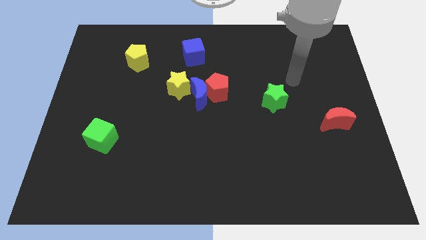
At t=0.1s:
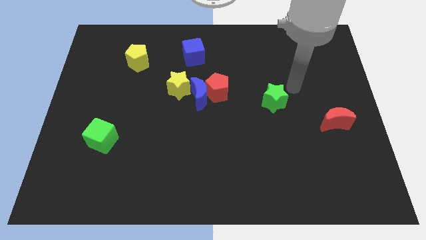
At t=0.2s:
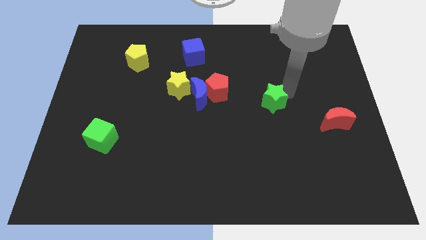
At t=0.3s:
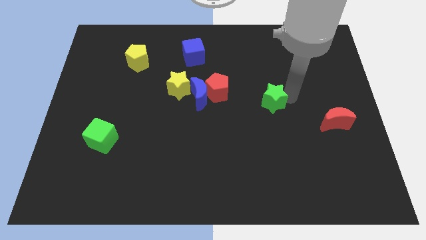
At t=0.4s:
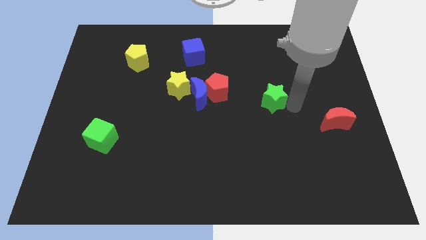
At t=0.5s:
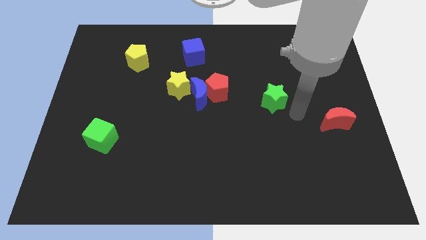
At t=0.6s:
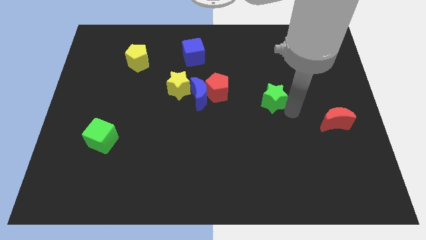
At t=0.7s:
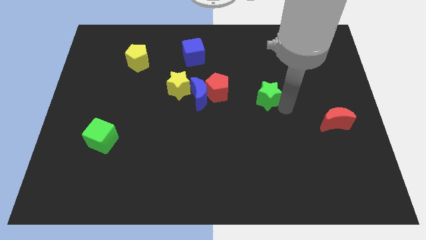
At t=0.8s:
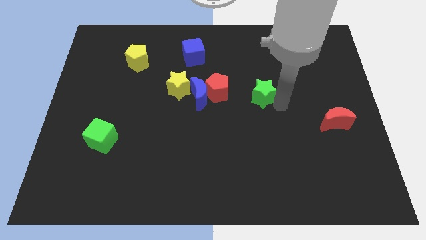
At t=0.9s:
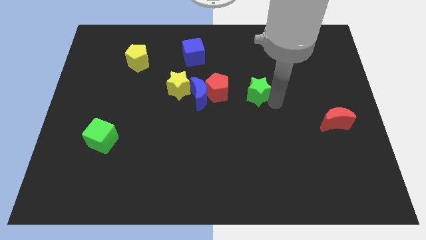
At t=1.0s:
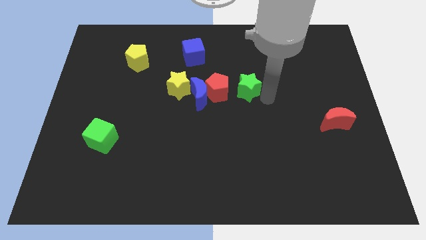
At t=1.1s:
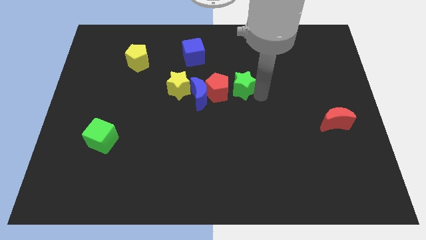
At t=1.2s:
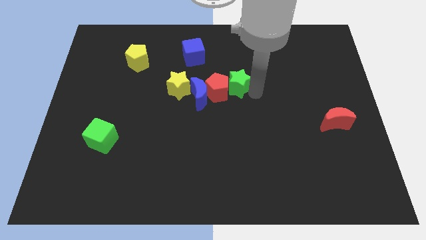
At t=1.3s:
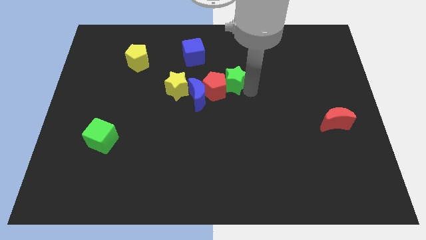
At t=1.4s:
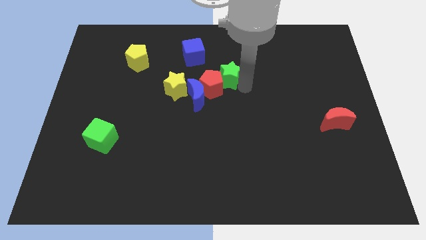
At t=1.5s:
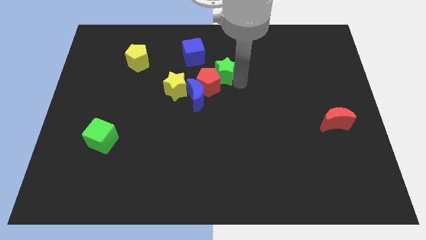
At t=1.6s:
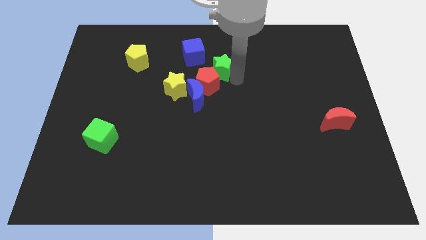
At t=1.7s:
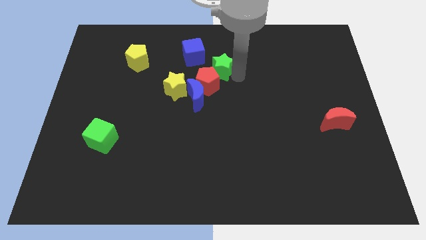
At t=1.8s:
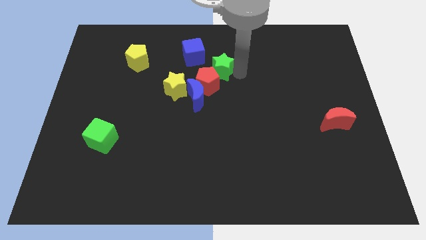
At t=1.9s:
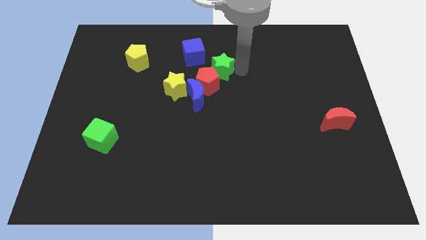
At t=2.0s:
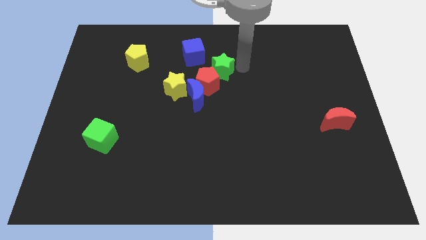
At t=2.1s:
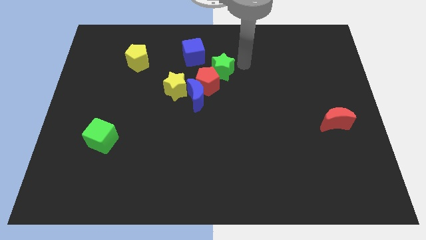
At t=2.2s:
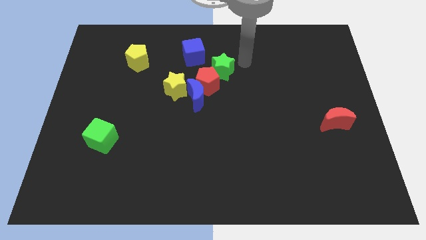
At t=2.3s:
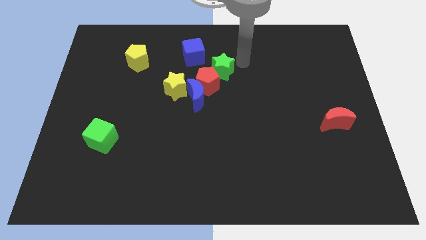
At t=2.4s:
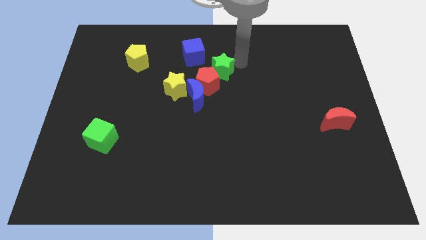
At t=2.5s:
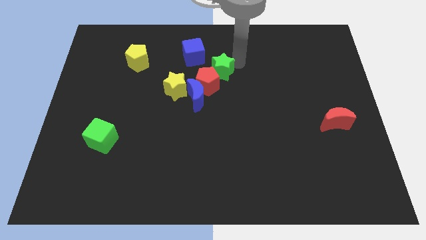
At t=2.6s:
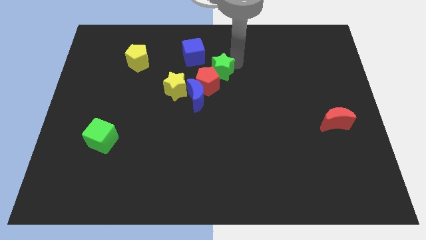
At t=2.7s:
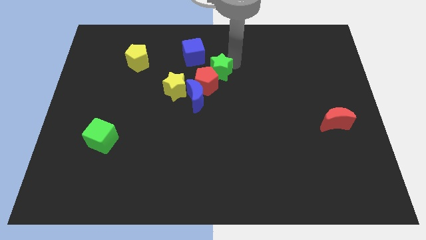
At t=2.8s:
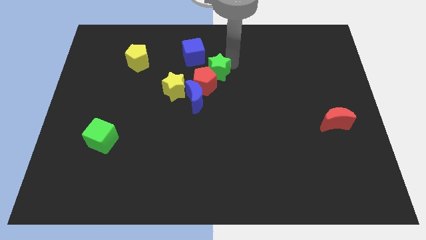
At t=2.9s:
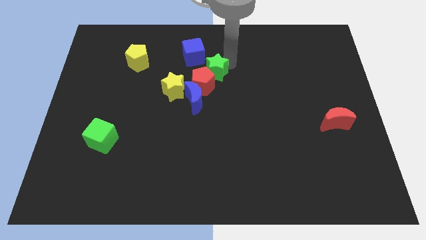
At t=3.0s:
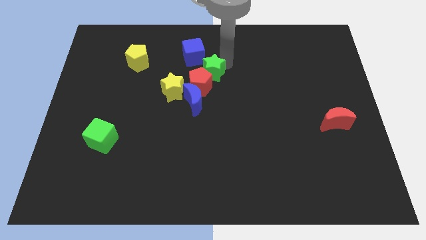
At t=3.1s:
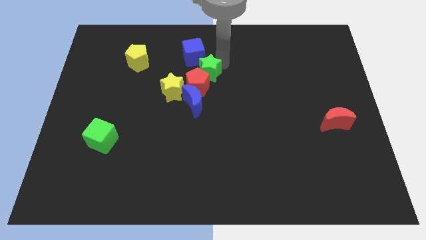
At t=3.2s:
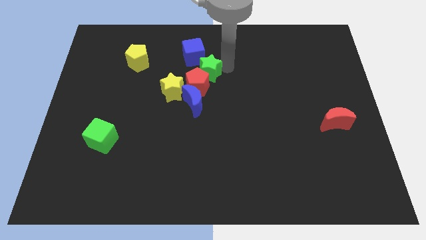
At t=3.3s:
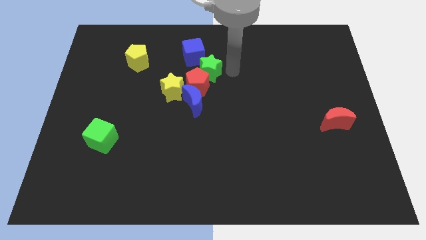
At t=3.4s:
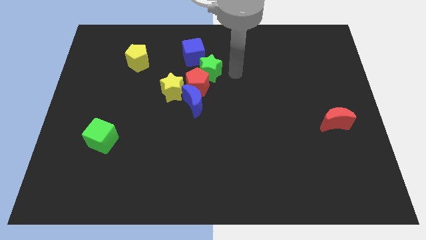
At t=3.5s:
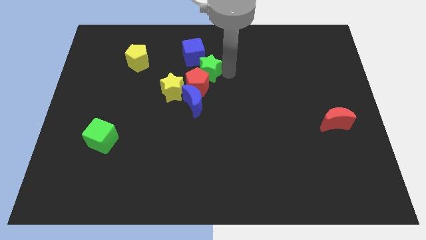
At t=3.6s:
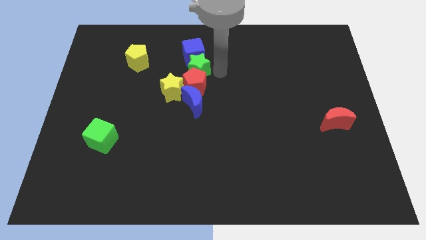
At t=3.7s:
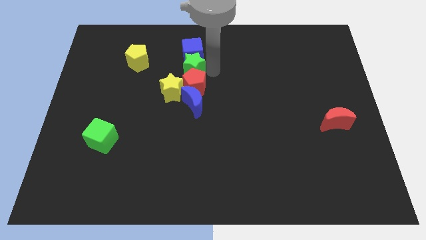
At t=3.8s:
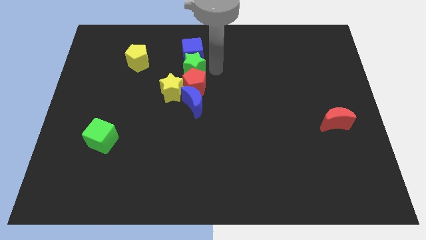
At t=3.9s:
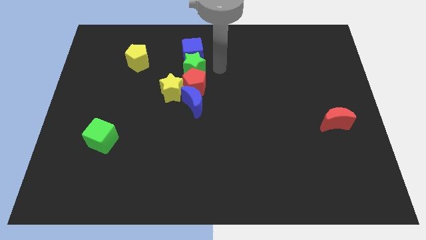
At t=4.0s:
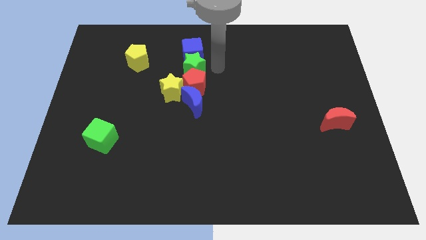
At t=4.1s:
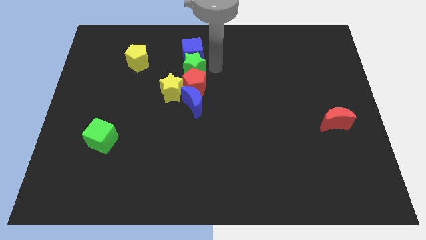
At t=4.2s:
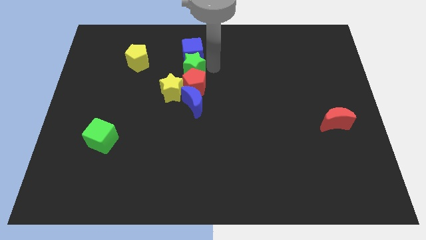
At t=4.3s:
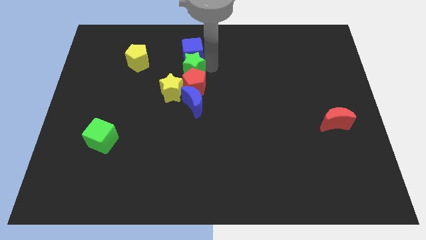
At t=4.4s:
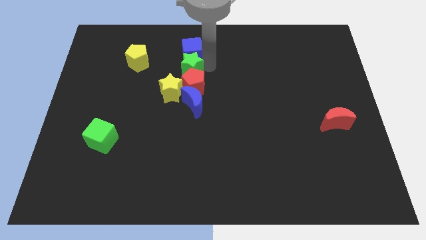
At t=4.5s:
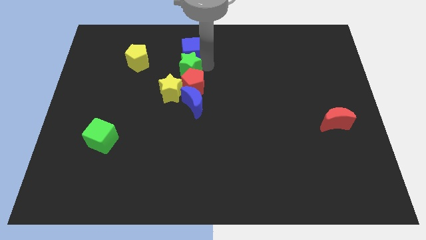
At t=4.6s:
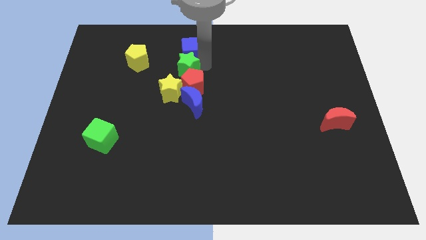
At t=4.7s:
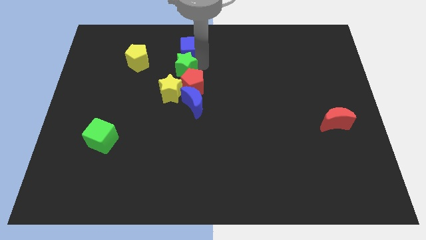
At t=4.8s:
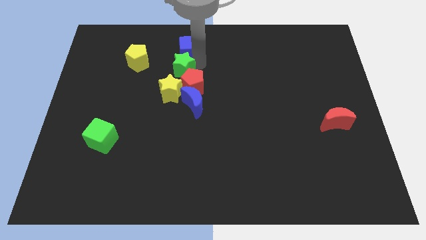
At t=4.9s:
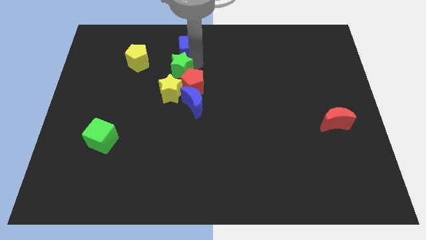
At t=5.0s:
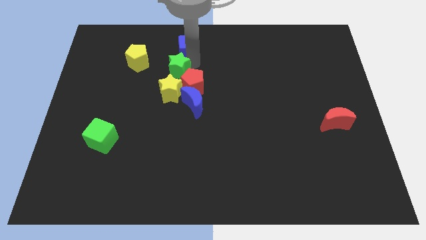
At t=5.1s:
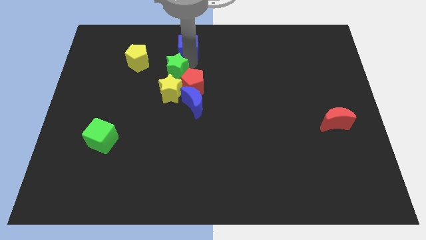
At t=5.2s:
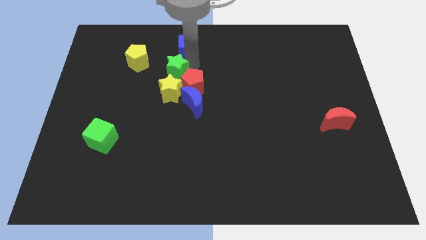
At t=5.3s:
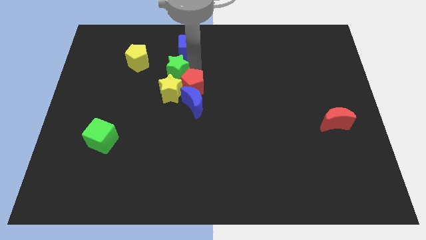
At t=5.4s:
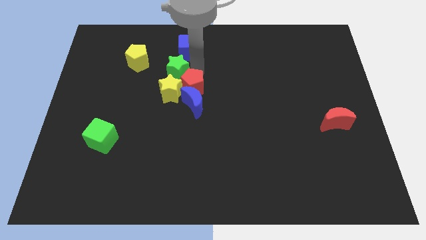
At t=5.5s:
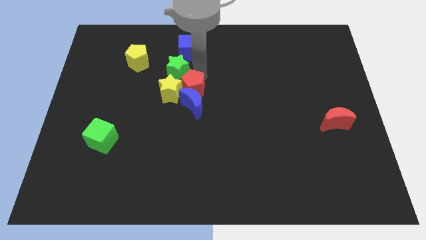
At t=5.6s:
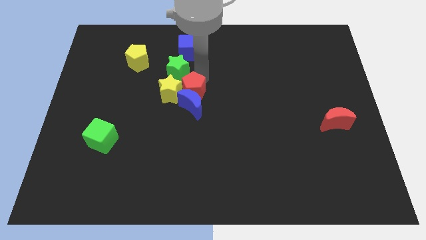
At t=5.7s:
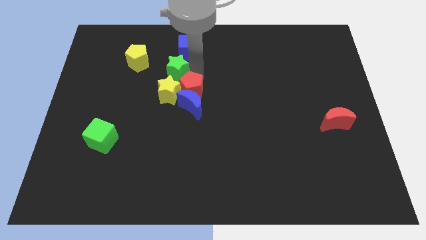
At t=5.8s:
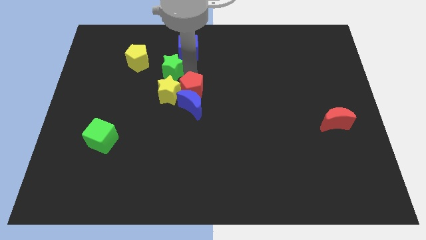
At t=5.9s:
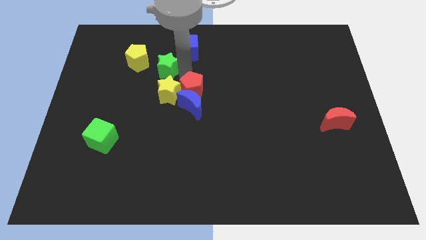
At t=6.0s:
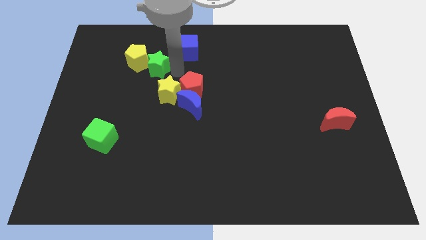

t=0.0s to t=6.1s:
move the green star to the yellow pentagon

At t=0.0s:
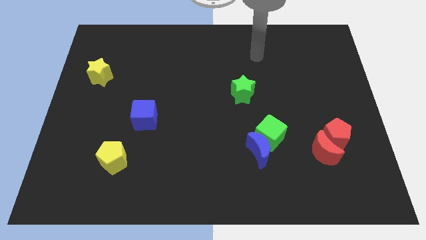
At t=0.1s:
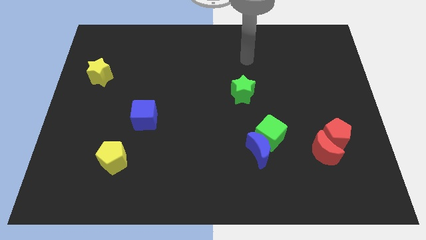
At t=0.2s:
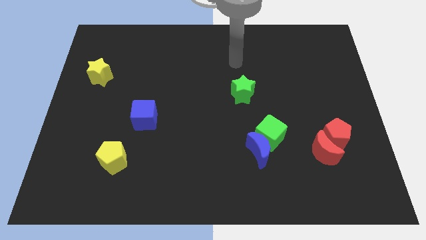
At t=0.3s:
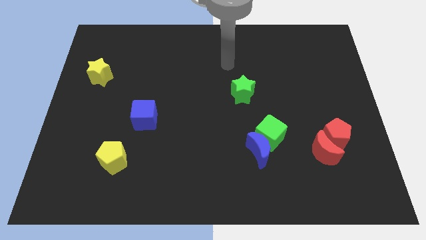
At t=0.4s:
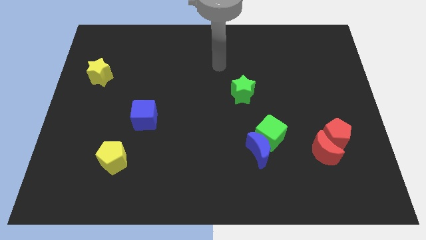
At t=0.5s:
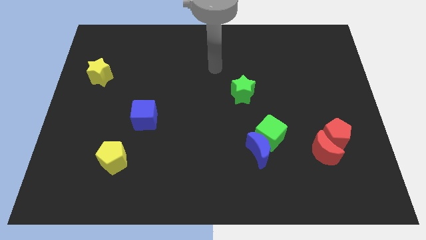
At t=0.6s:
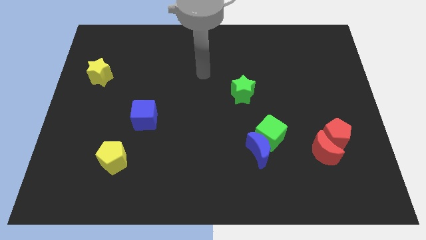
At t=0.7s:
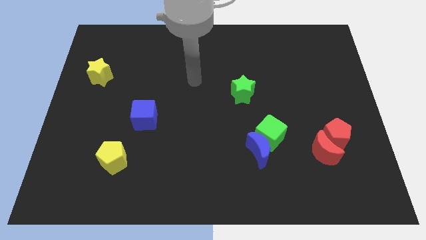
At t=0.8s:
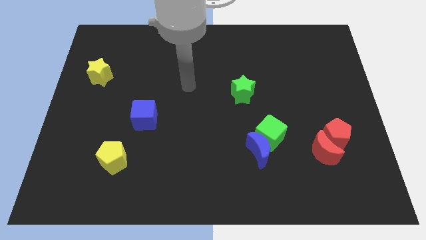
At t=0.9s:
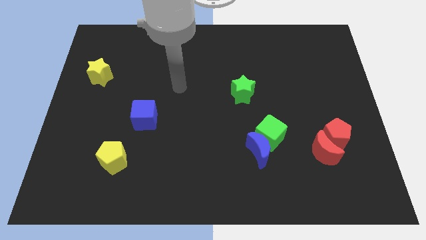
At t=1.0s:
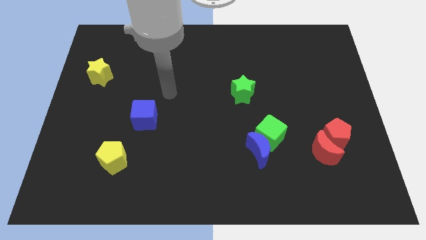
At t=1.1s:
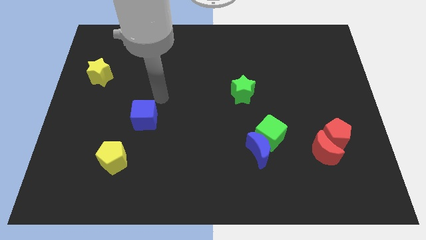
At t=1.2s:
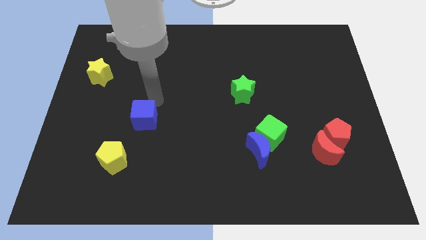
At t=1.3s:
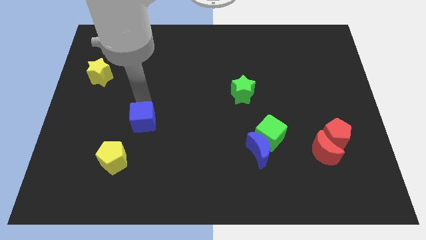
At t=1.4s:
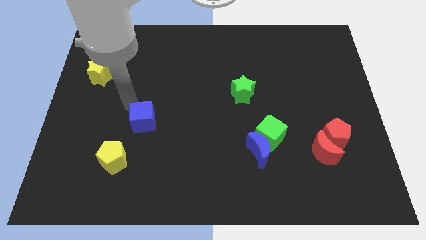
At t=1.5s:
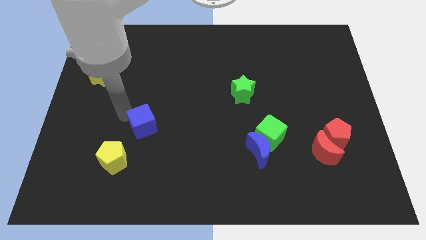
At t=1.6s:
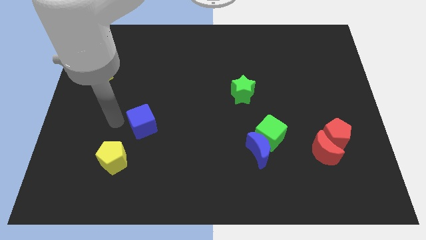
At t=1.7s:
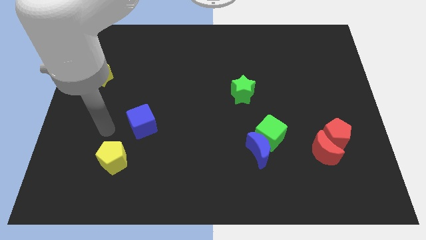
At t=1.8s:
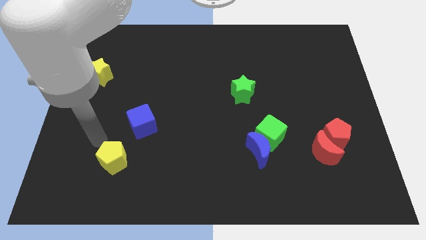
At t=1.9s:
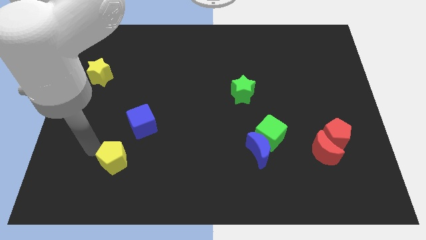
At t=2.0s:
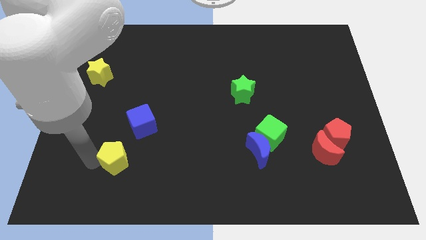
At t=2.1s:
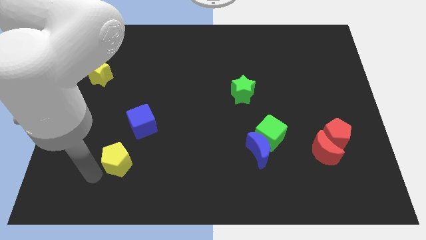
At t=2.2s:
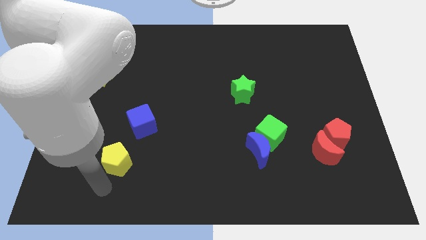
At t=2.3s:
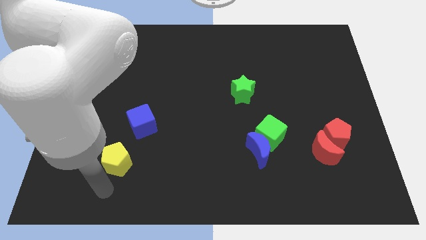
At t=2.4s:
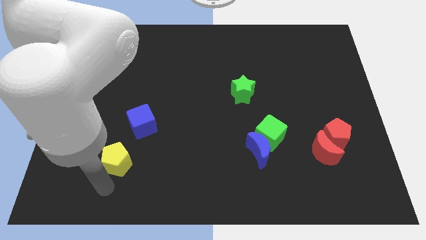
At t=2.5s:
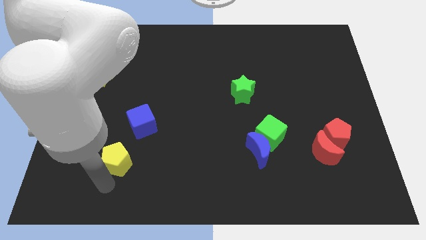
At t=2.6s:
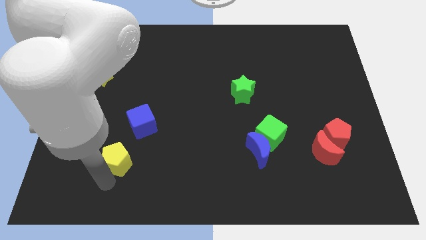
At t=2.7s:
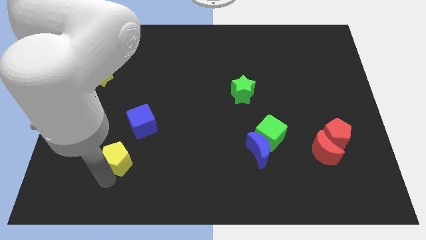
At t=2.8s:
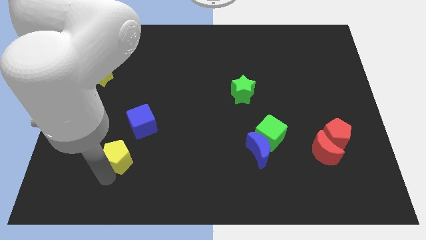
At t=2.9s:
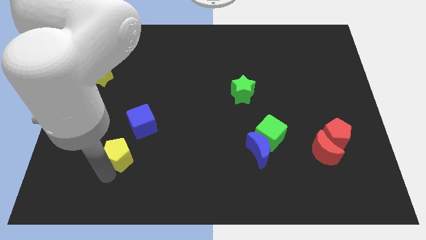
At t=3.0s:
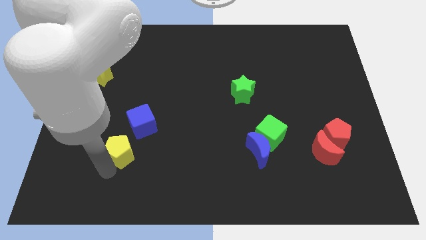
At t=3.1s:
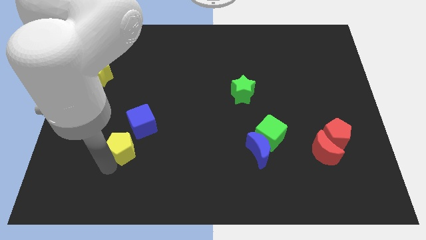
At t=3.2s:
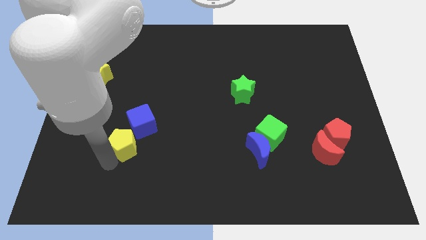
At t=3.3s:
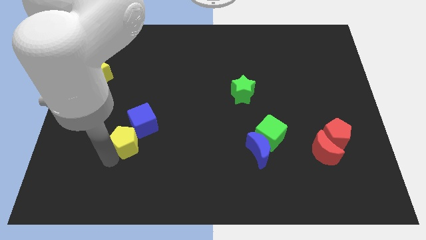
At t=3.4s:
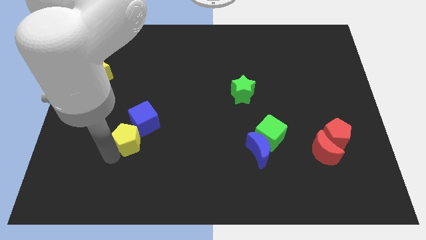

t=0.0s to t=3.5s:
slide the yellow pentagon next to the blue cube
